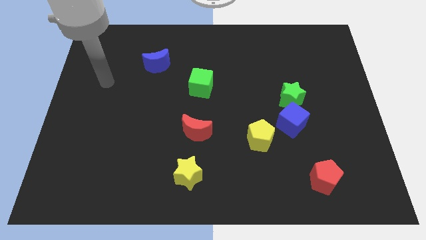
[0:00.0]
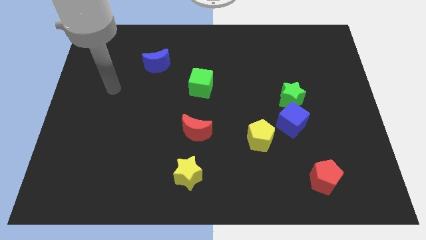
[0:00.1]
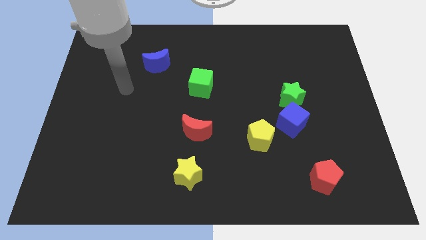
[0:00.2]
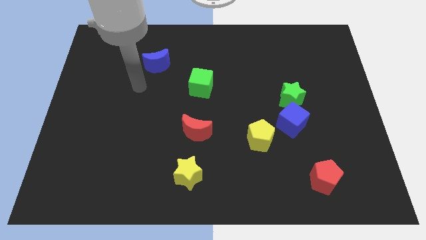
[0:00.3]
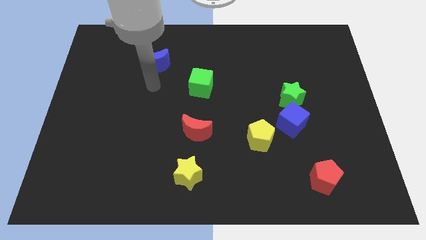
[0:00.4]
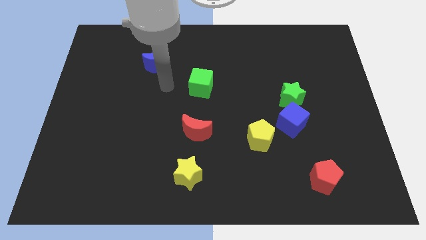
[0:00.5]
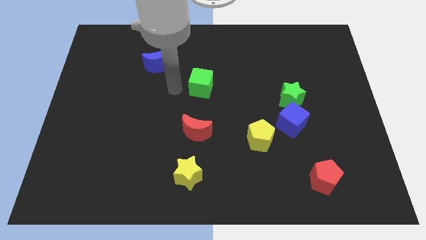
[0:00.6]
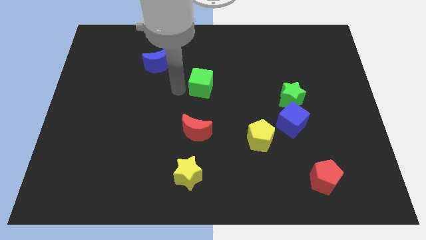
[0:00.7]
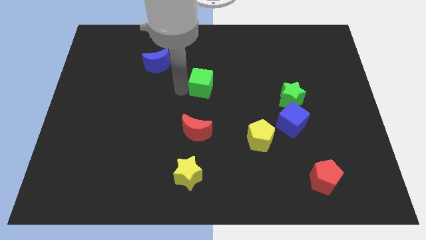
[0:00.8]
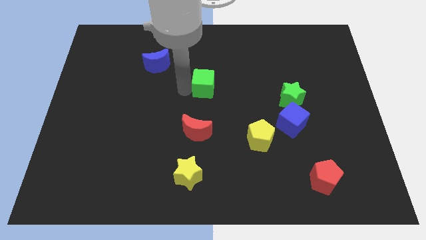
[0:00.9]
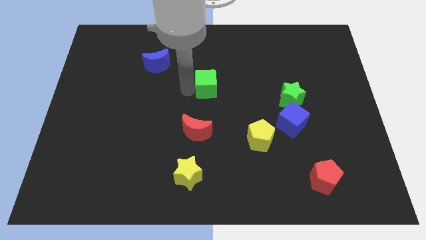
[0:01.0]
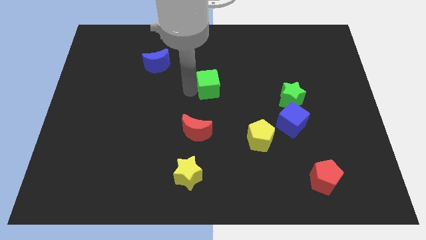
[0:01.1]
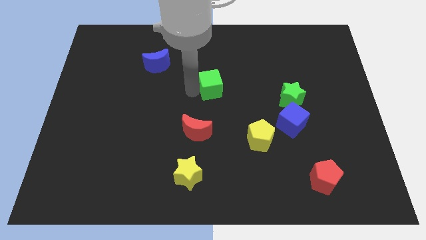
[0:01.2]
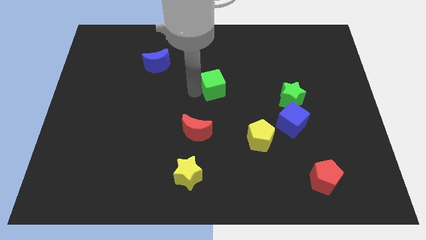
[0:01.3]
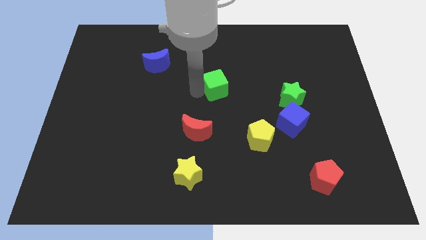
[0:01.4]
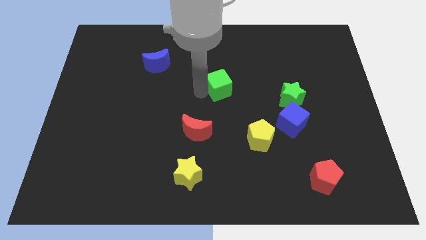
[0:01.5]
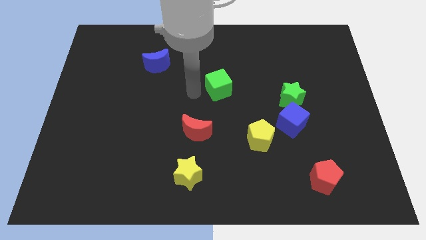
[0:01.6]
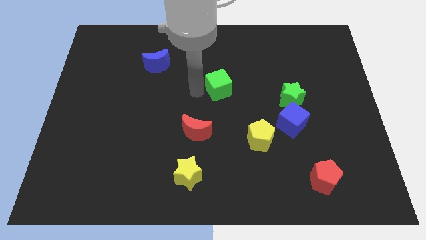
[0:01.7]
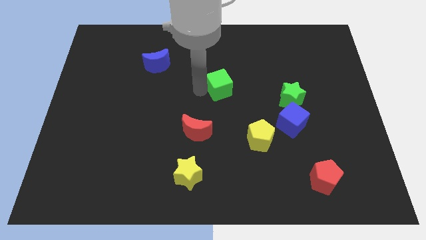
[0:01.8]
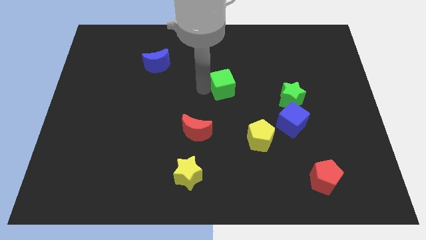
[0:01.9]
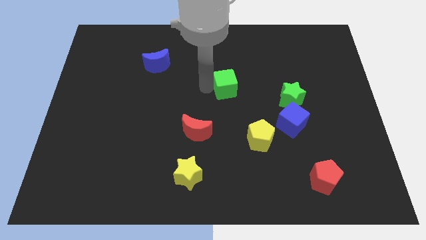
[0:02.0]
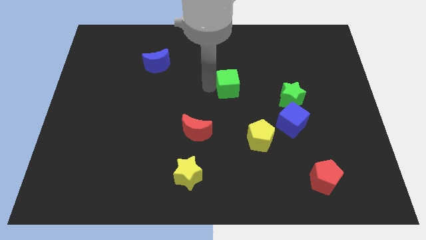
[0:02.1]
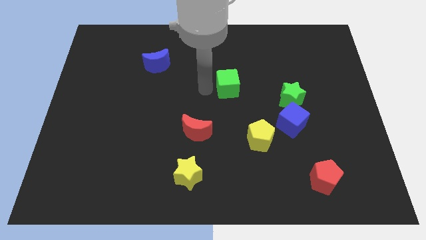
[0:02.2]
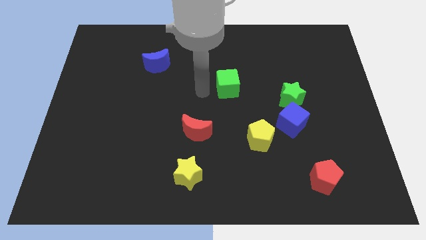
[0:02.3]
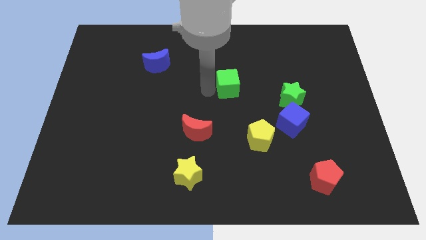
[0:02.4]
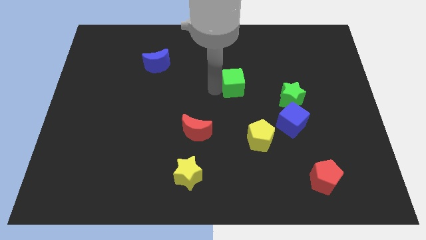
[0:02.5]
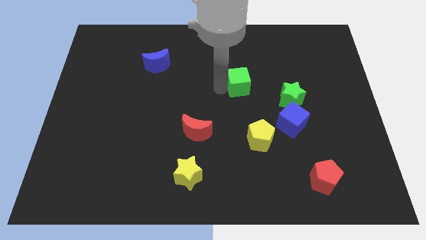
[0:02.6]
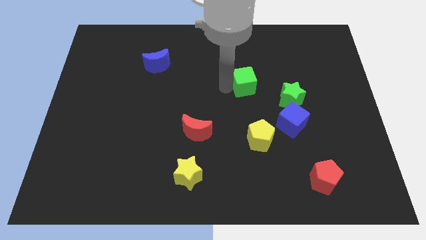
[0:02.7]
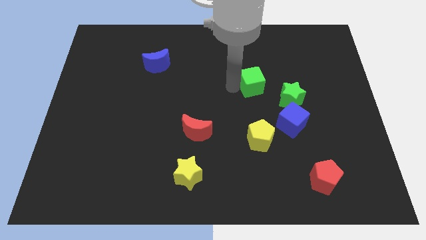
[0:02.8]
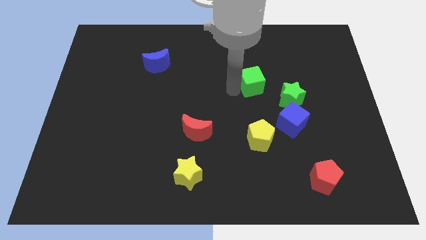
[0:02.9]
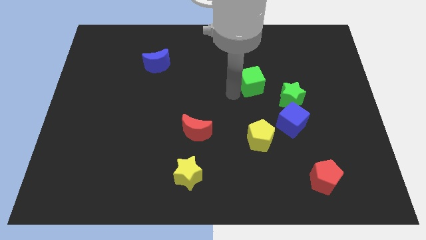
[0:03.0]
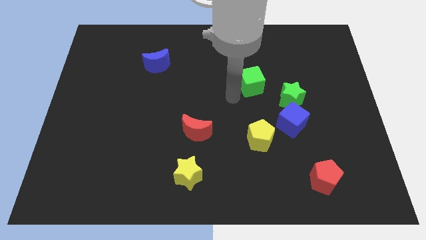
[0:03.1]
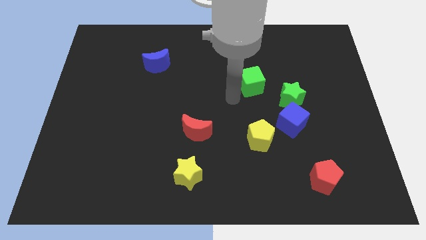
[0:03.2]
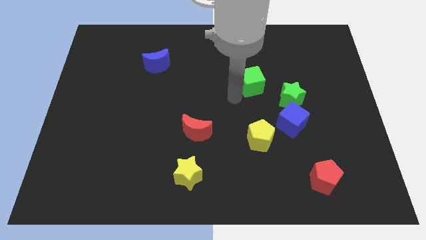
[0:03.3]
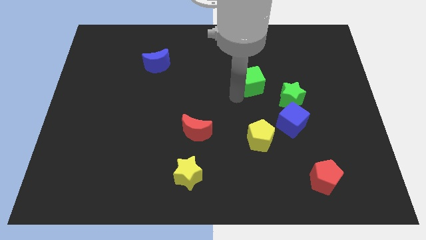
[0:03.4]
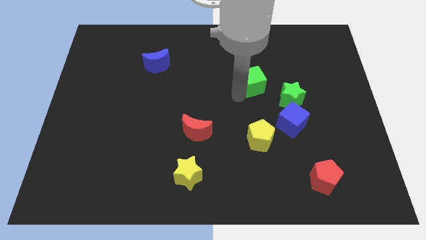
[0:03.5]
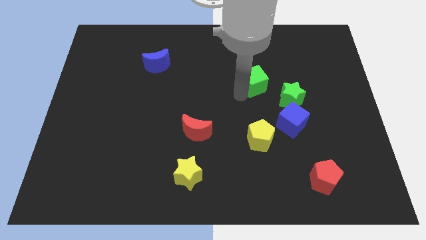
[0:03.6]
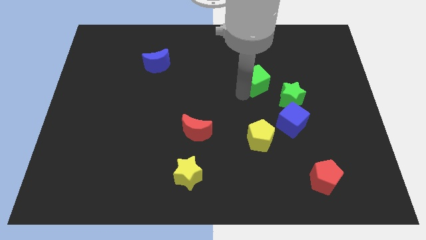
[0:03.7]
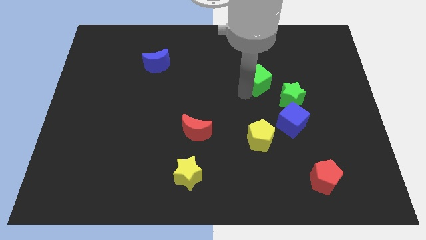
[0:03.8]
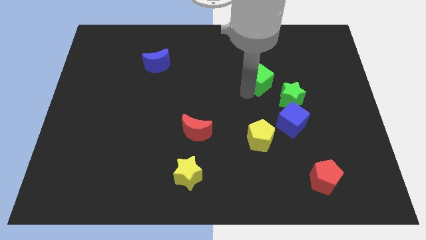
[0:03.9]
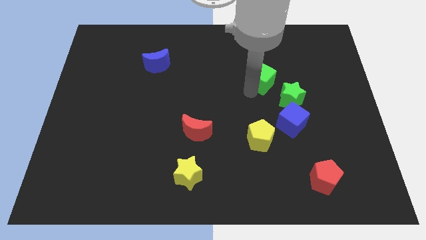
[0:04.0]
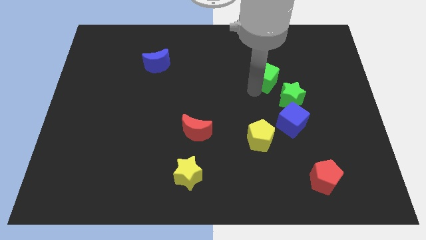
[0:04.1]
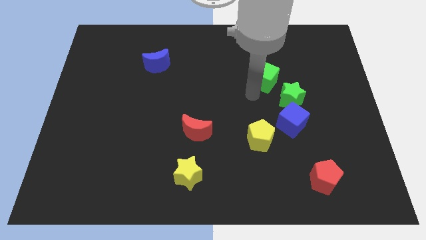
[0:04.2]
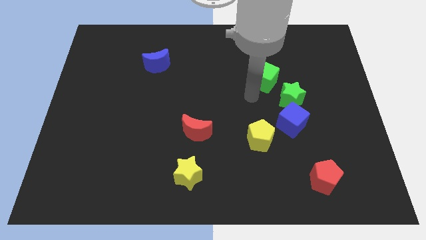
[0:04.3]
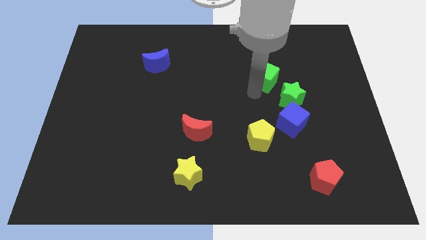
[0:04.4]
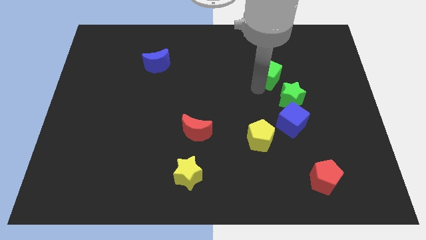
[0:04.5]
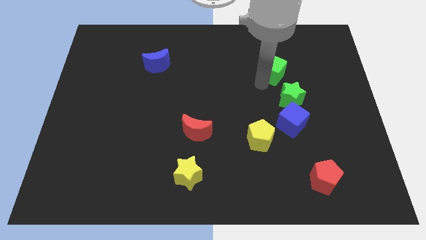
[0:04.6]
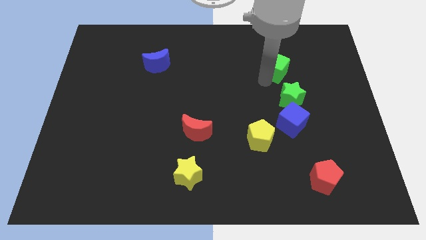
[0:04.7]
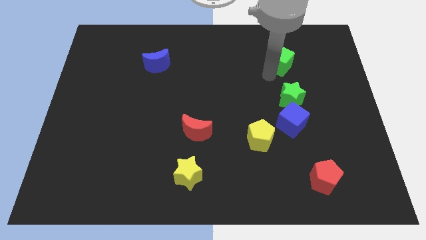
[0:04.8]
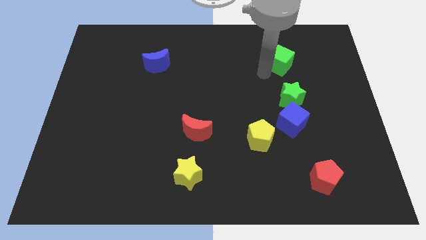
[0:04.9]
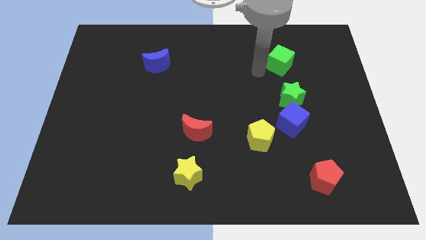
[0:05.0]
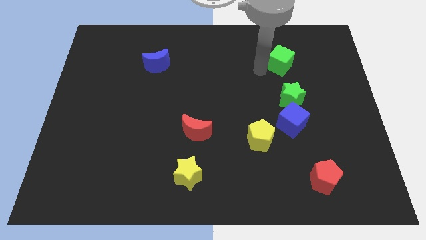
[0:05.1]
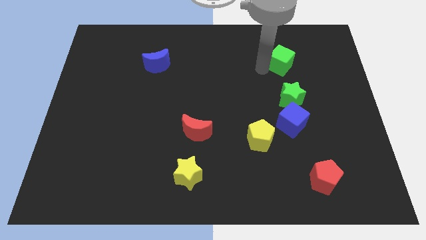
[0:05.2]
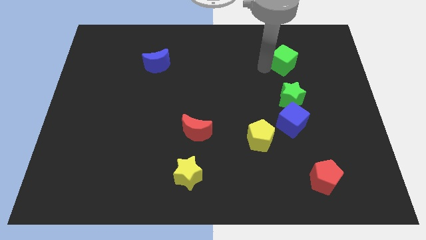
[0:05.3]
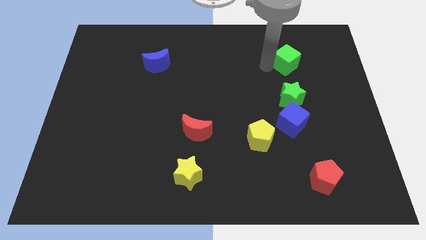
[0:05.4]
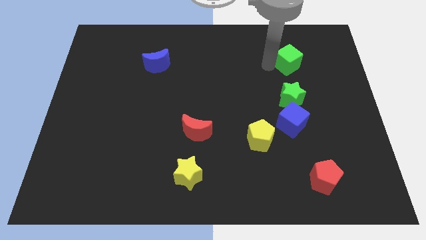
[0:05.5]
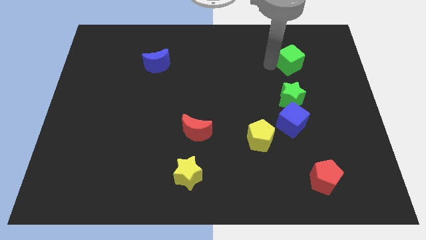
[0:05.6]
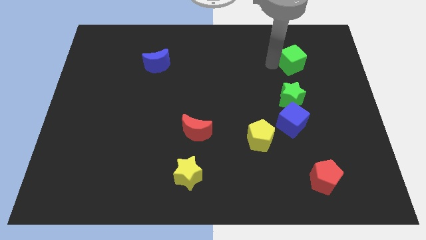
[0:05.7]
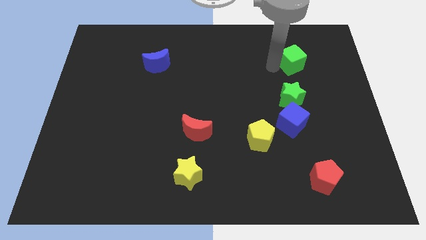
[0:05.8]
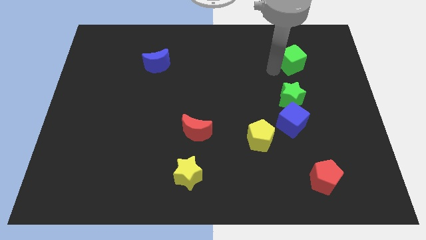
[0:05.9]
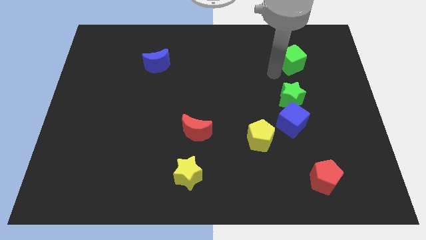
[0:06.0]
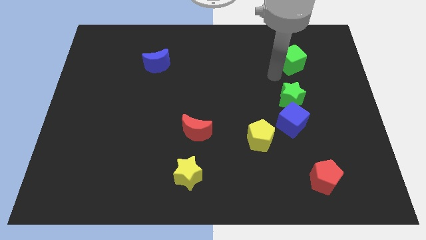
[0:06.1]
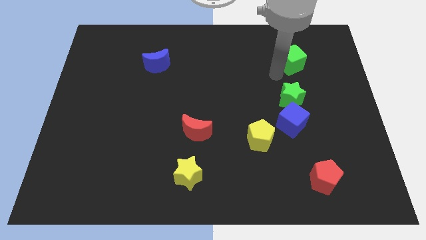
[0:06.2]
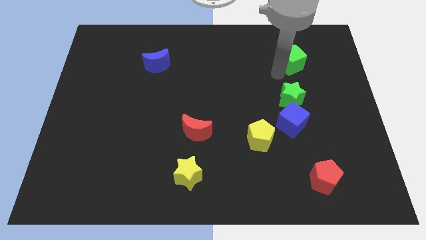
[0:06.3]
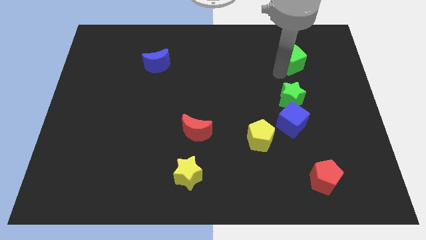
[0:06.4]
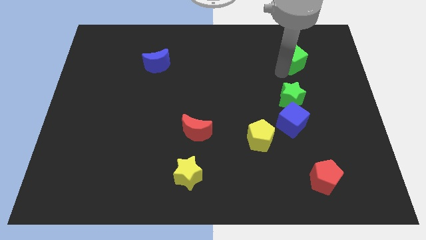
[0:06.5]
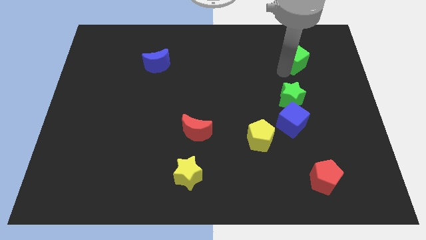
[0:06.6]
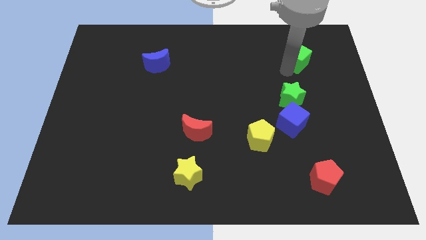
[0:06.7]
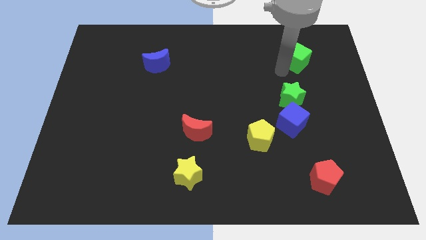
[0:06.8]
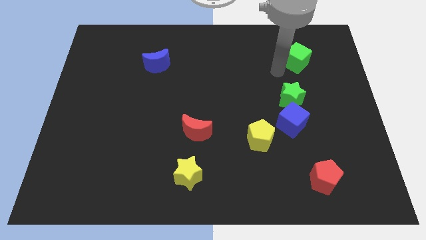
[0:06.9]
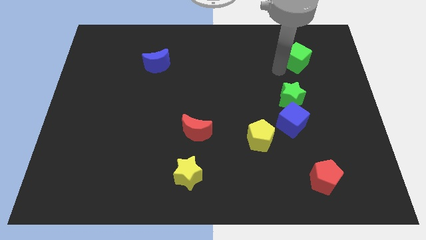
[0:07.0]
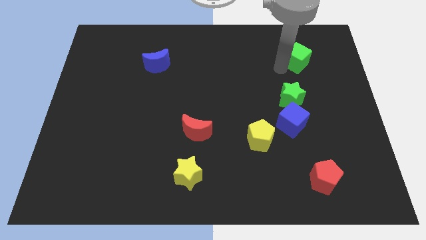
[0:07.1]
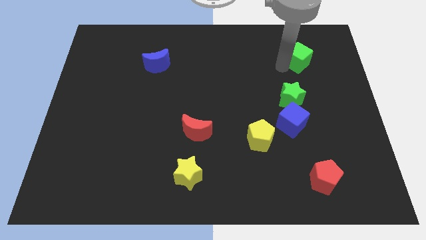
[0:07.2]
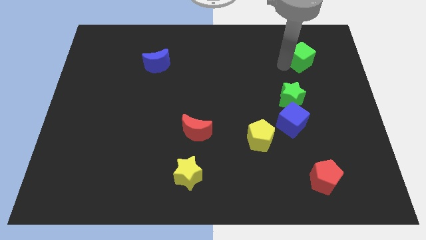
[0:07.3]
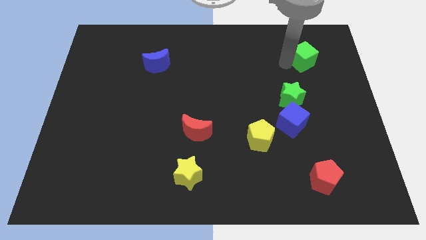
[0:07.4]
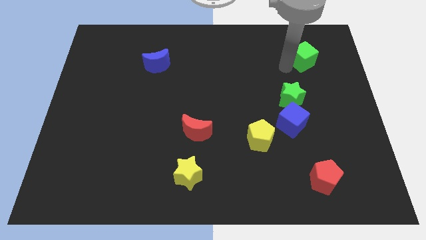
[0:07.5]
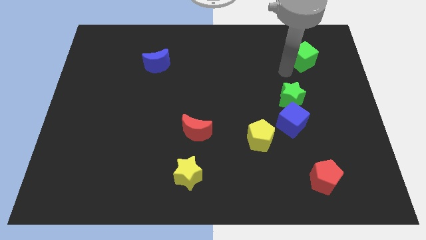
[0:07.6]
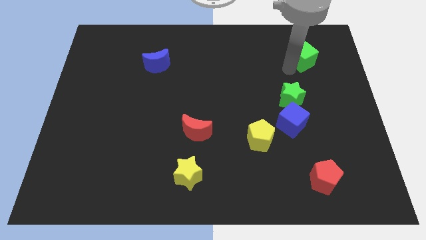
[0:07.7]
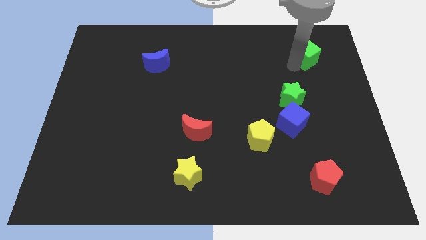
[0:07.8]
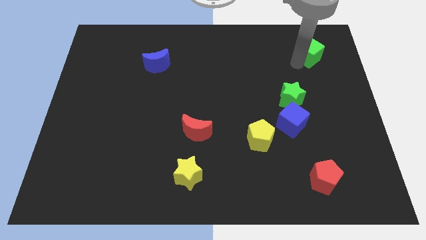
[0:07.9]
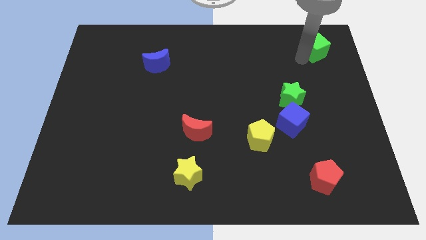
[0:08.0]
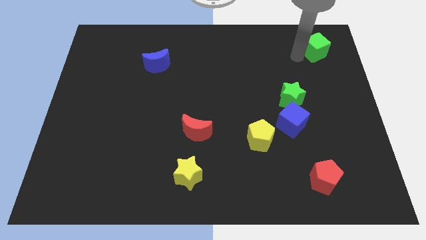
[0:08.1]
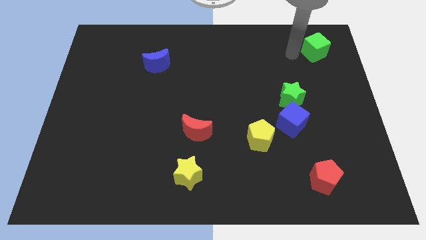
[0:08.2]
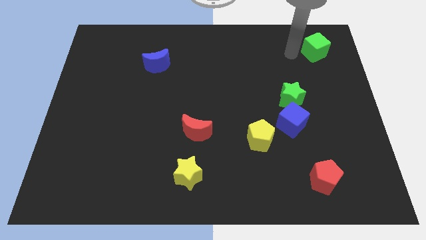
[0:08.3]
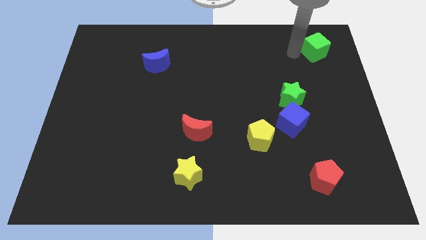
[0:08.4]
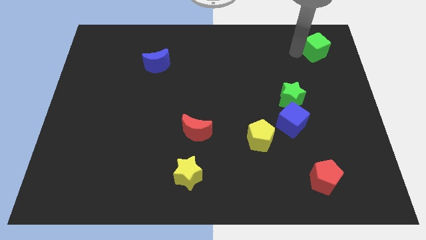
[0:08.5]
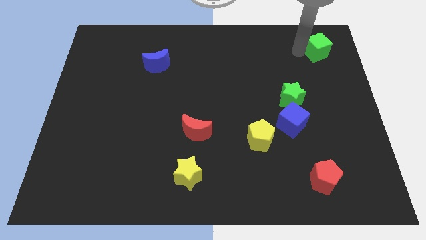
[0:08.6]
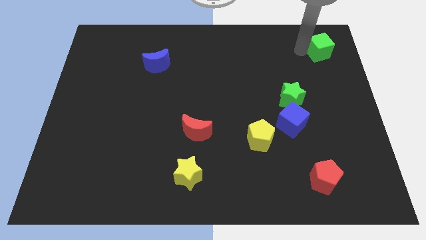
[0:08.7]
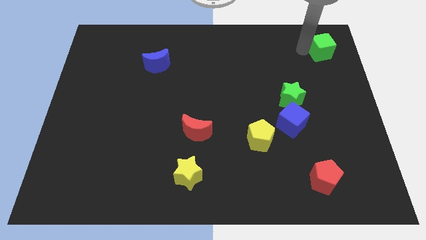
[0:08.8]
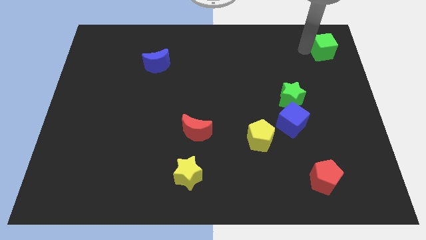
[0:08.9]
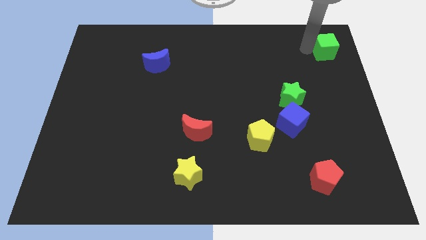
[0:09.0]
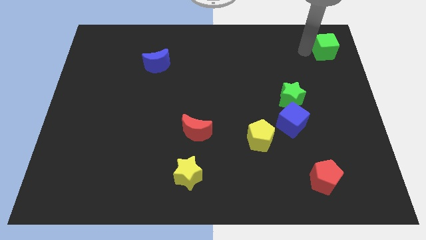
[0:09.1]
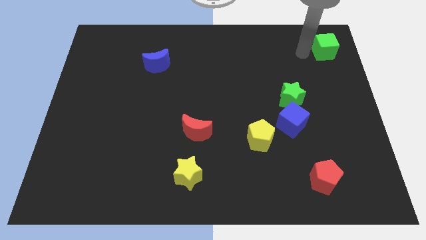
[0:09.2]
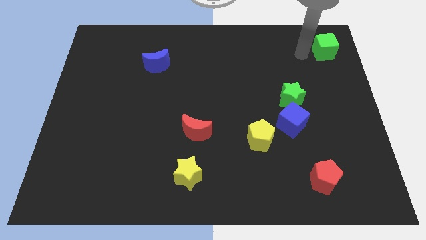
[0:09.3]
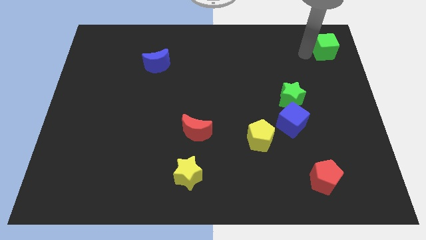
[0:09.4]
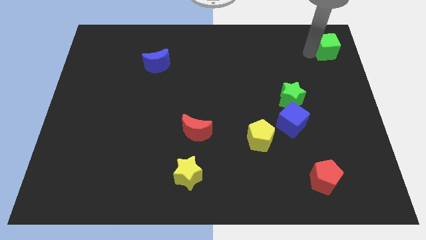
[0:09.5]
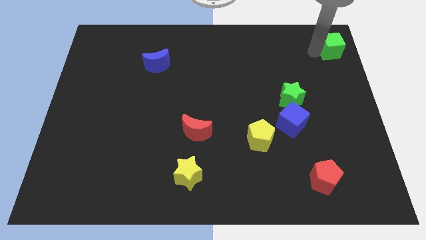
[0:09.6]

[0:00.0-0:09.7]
move the green cube to the top right corner
